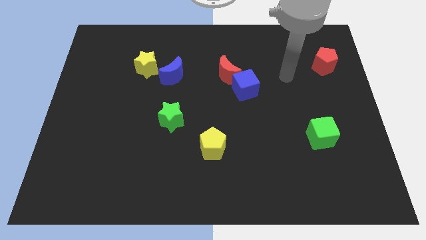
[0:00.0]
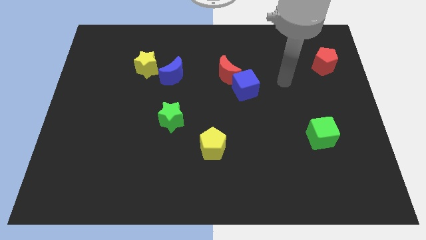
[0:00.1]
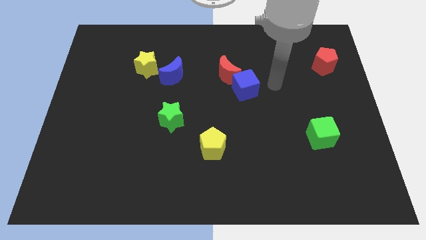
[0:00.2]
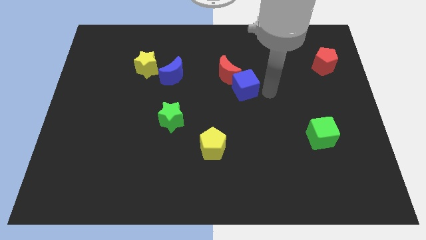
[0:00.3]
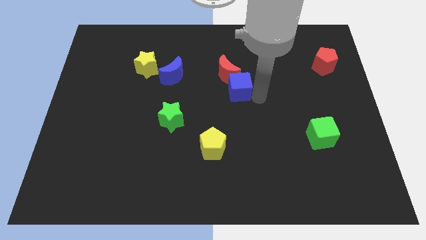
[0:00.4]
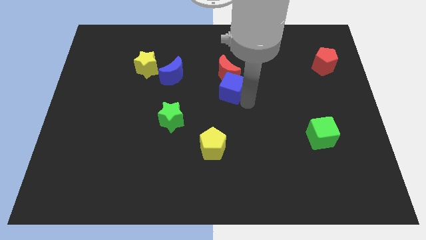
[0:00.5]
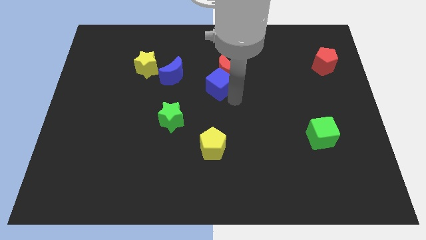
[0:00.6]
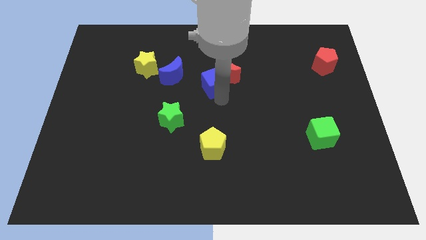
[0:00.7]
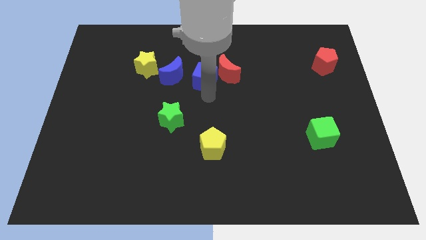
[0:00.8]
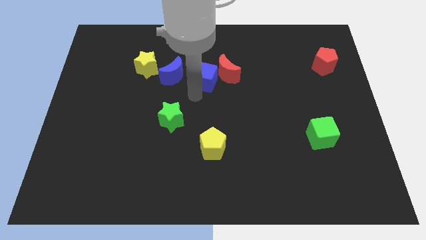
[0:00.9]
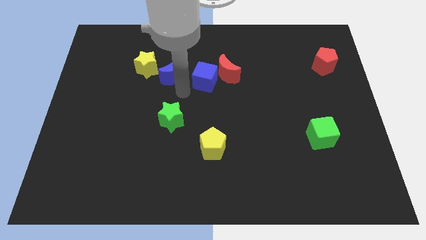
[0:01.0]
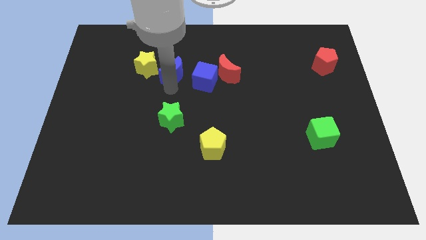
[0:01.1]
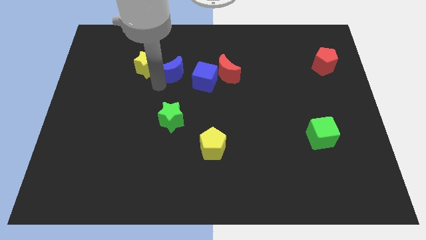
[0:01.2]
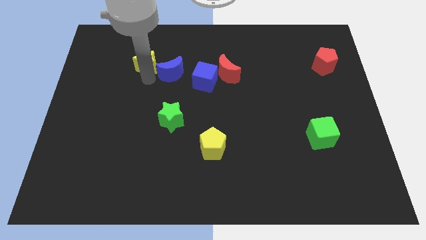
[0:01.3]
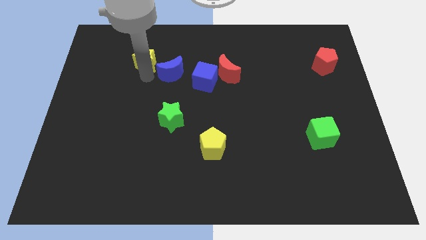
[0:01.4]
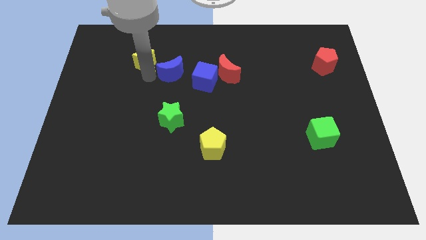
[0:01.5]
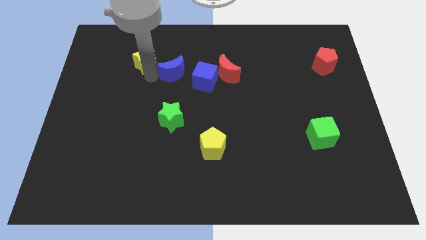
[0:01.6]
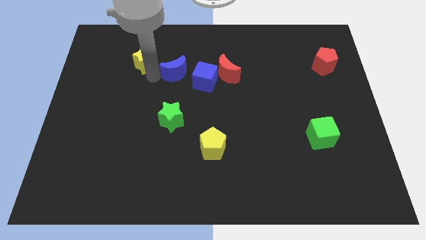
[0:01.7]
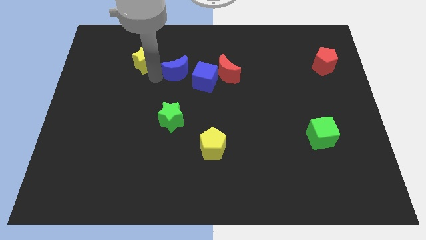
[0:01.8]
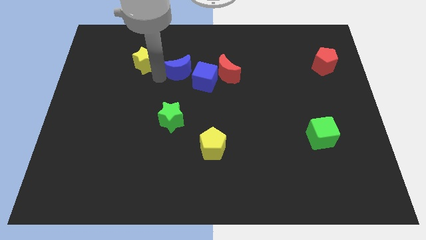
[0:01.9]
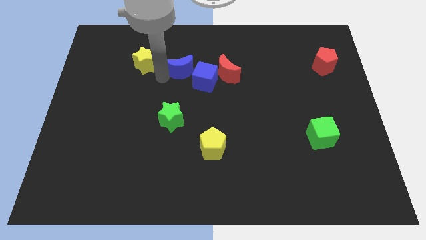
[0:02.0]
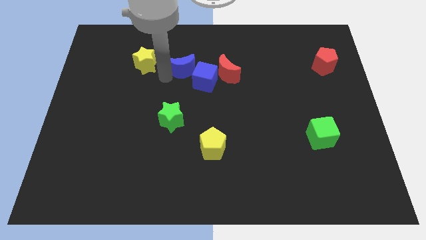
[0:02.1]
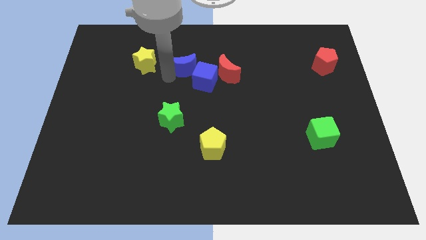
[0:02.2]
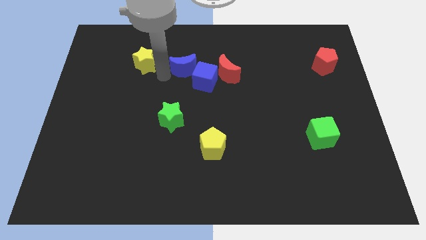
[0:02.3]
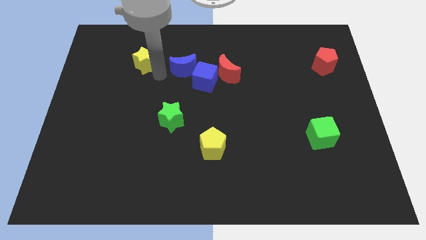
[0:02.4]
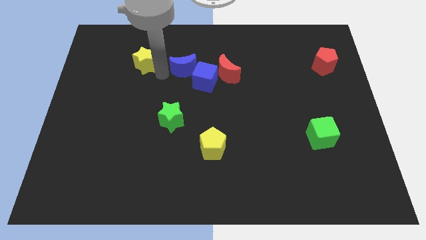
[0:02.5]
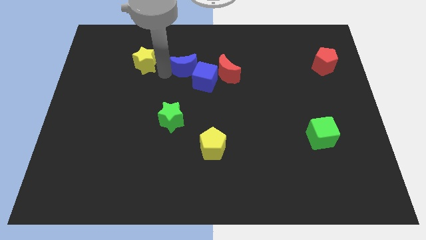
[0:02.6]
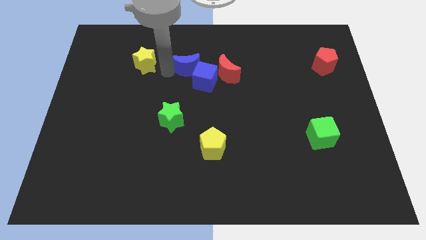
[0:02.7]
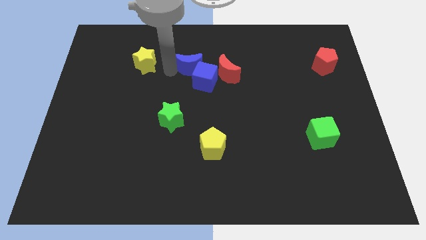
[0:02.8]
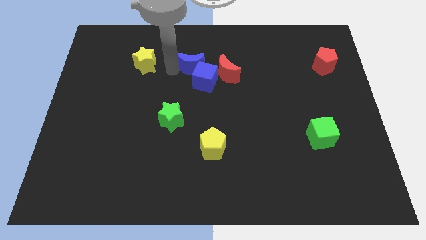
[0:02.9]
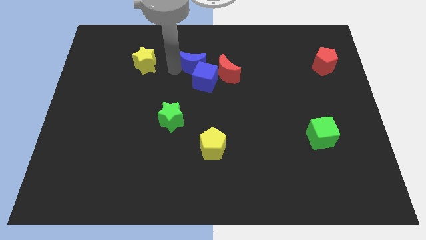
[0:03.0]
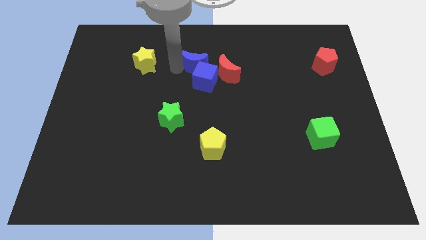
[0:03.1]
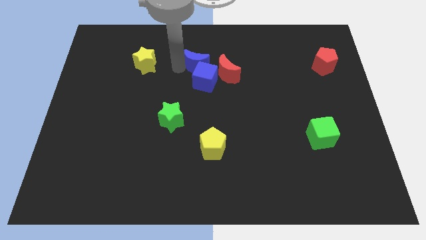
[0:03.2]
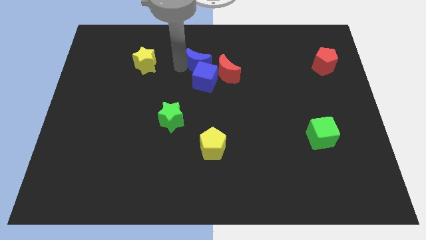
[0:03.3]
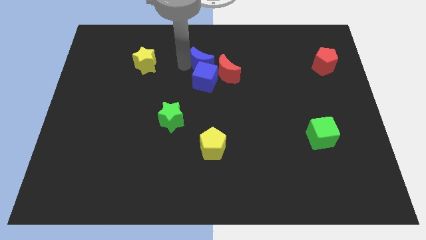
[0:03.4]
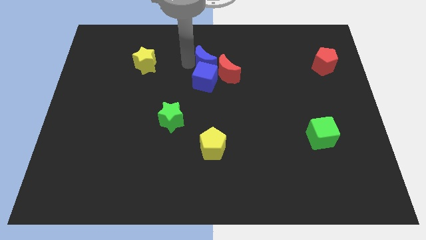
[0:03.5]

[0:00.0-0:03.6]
slightly slide the blue moon to the right

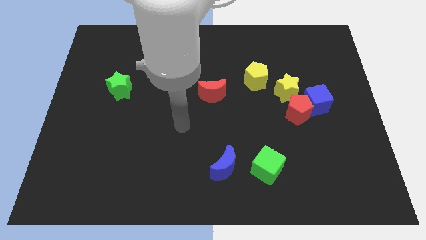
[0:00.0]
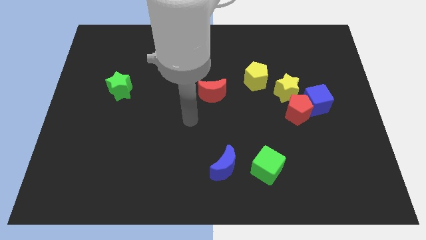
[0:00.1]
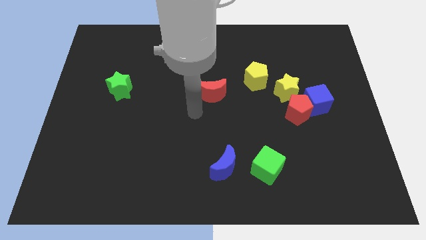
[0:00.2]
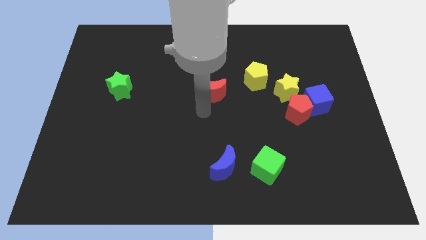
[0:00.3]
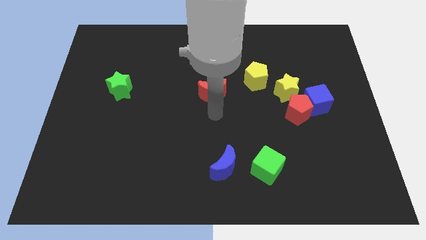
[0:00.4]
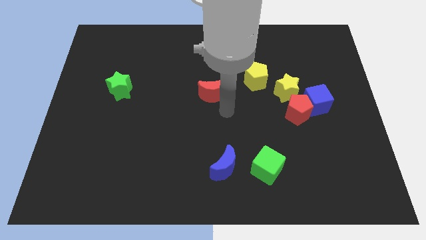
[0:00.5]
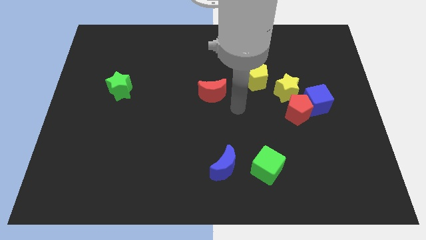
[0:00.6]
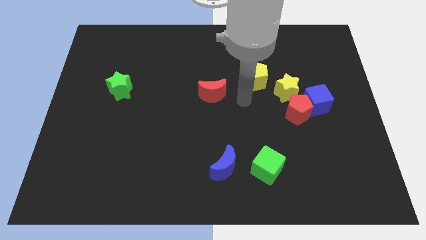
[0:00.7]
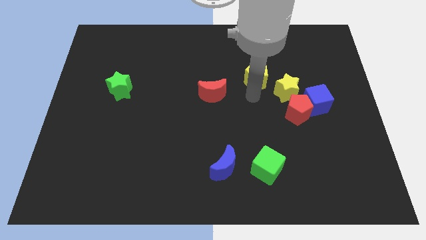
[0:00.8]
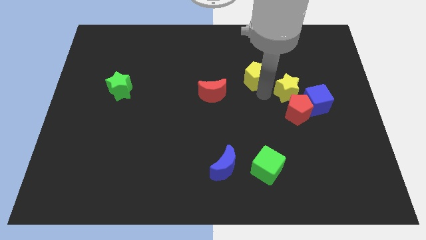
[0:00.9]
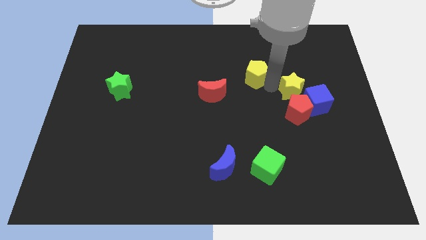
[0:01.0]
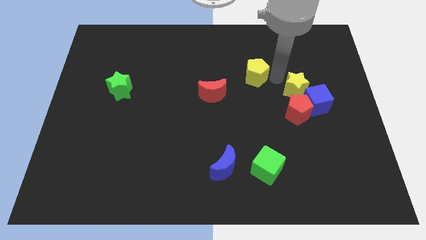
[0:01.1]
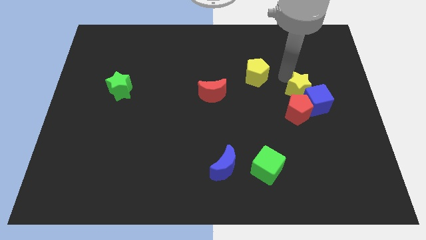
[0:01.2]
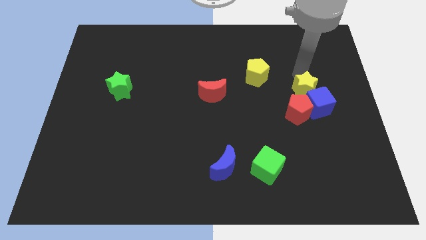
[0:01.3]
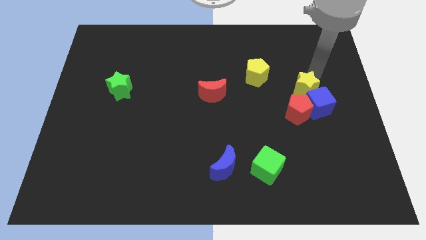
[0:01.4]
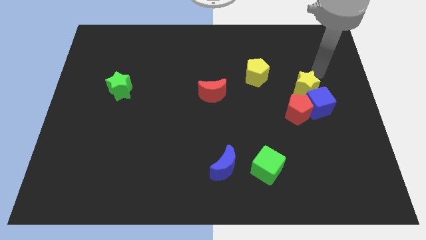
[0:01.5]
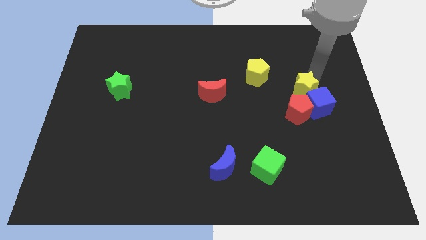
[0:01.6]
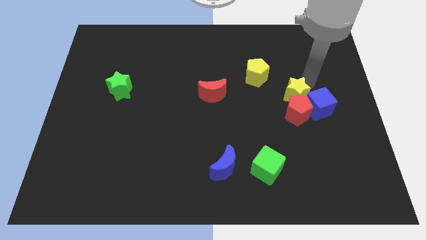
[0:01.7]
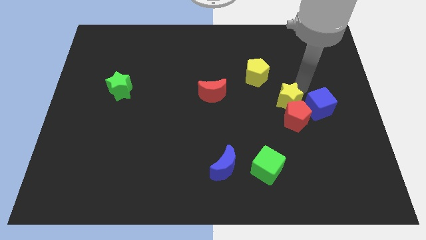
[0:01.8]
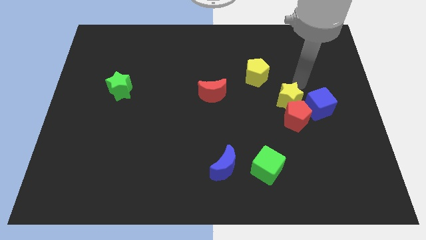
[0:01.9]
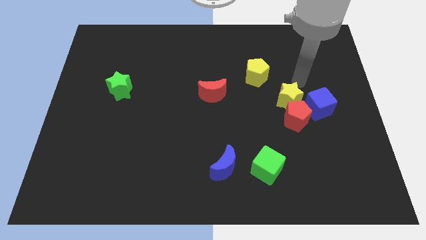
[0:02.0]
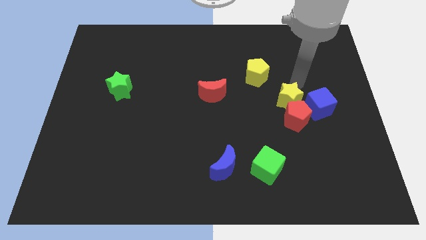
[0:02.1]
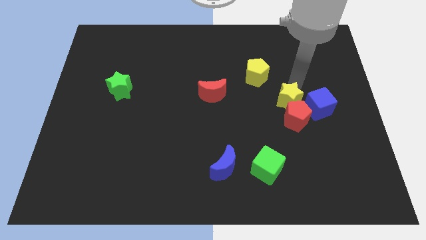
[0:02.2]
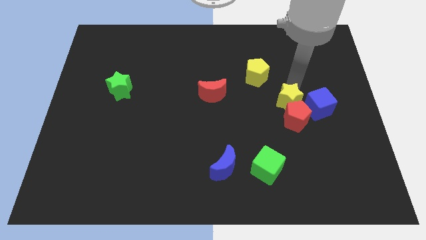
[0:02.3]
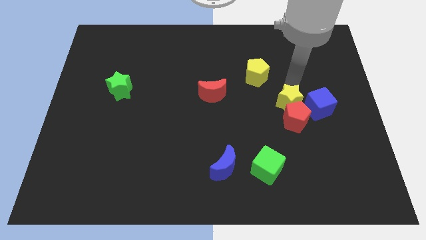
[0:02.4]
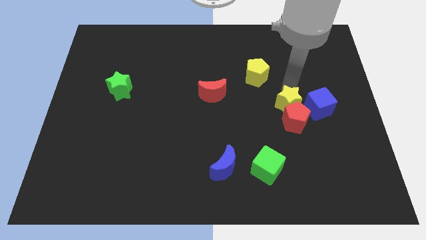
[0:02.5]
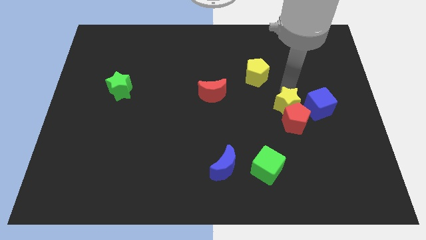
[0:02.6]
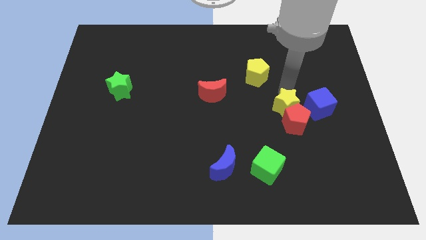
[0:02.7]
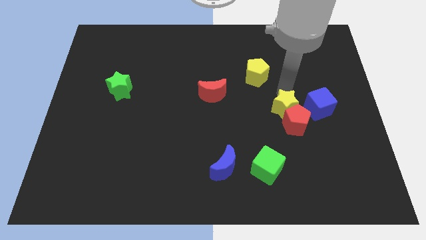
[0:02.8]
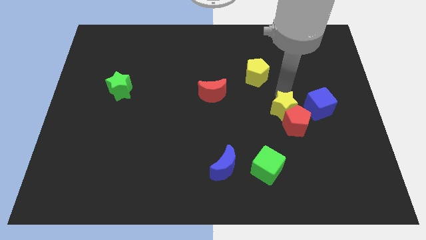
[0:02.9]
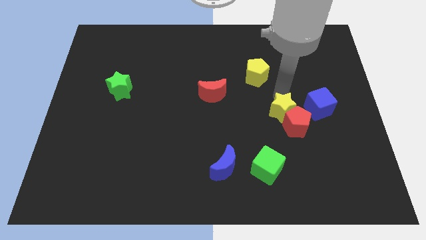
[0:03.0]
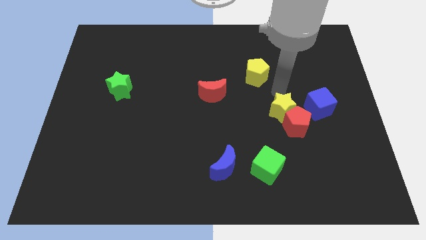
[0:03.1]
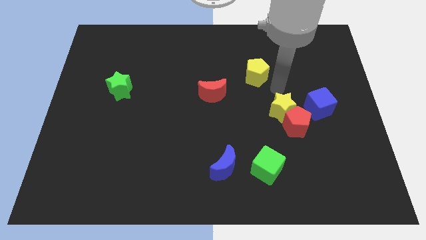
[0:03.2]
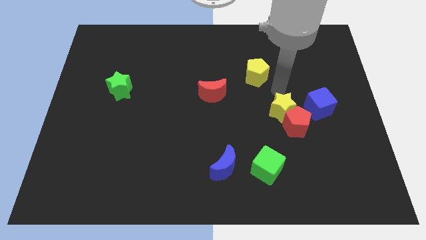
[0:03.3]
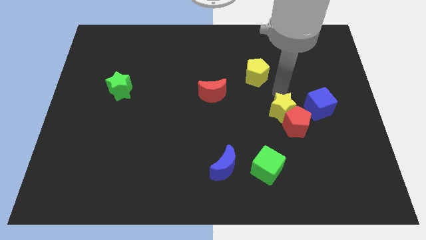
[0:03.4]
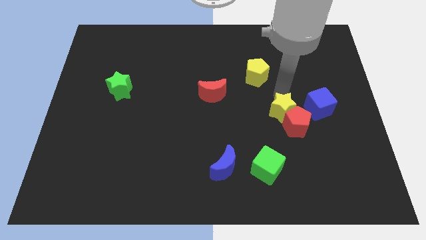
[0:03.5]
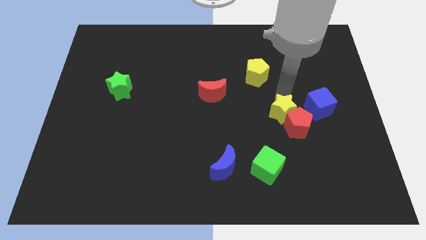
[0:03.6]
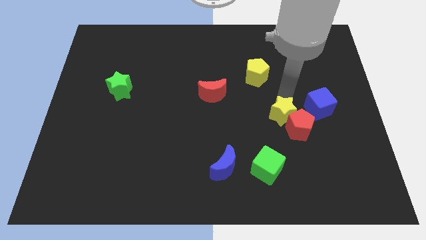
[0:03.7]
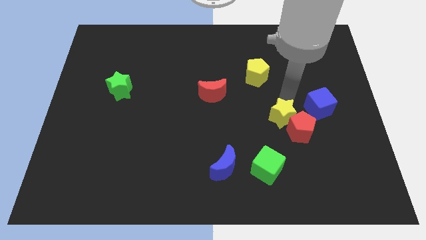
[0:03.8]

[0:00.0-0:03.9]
move the yellow star a little down

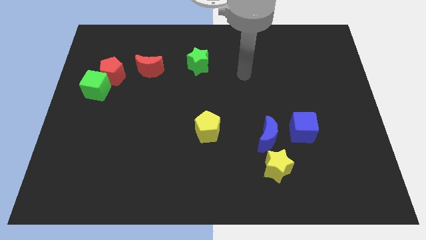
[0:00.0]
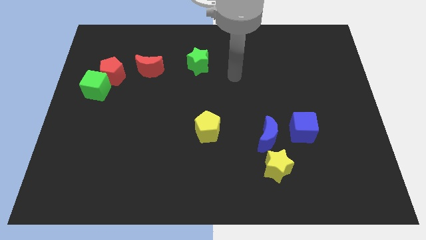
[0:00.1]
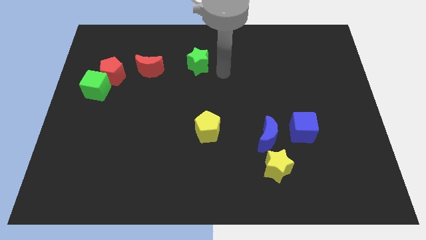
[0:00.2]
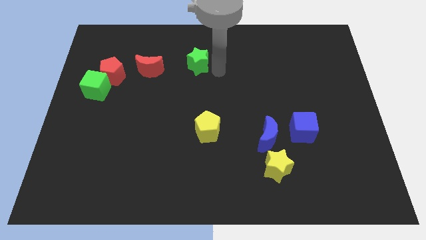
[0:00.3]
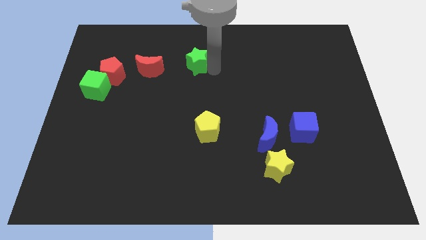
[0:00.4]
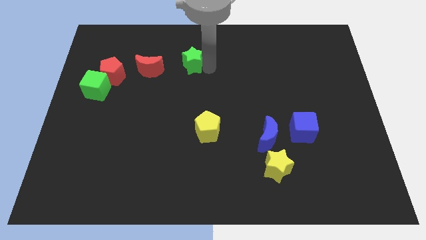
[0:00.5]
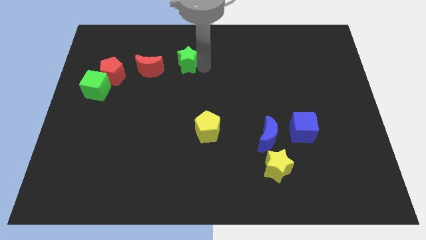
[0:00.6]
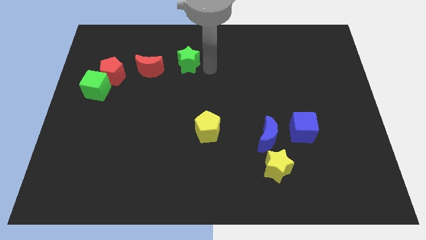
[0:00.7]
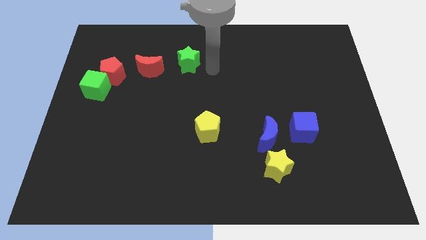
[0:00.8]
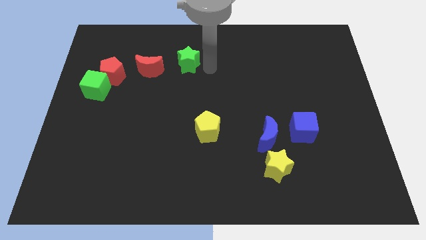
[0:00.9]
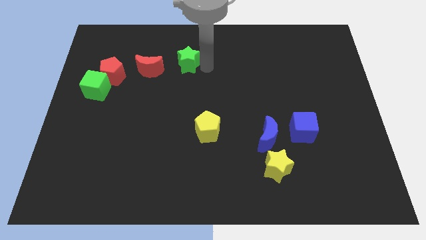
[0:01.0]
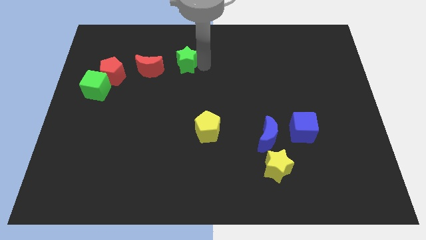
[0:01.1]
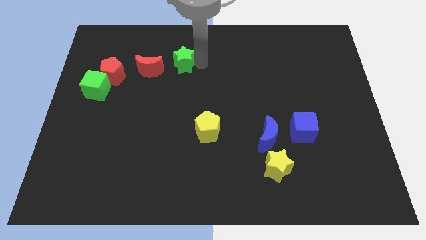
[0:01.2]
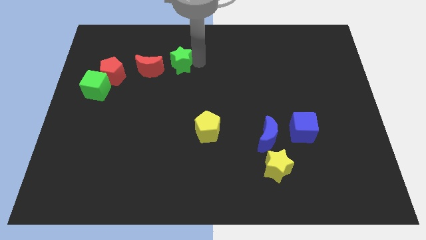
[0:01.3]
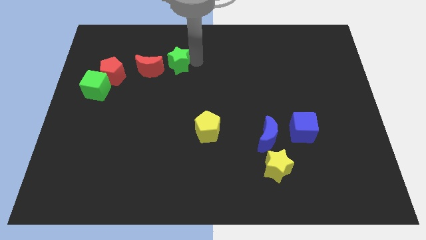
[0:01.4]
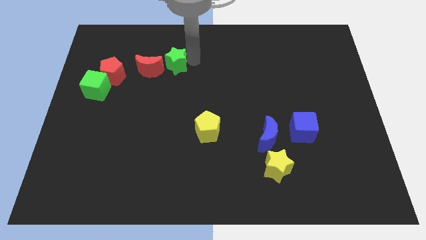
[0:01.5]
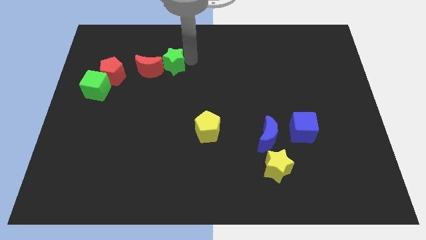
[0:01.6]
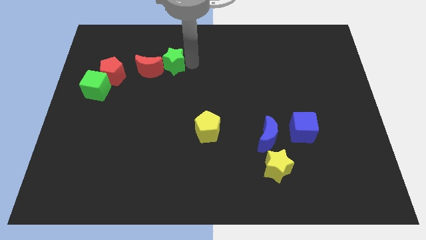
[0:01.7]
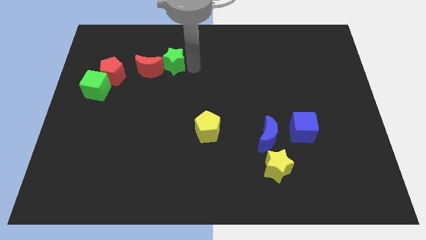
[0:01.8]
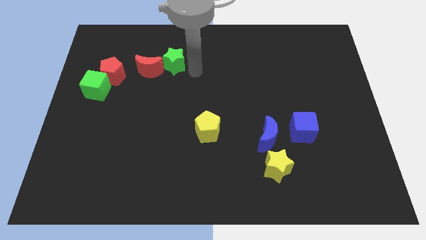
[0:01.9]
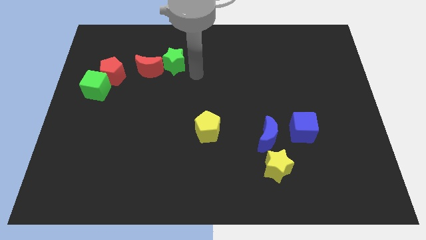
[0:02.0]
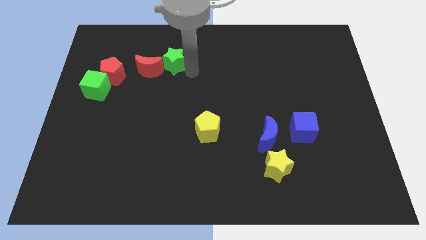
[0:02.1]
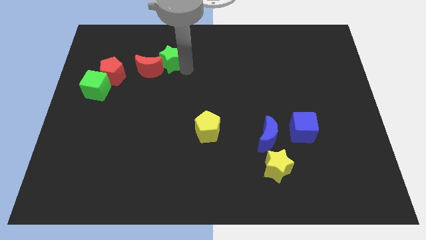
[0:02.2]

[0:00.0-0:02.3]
push the green star a little to the left
